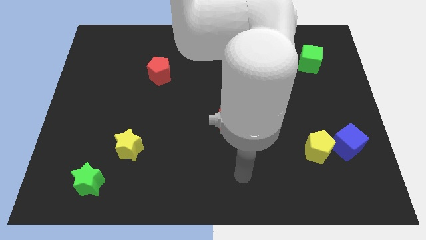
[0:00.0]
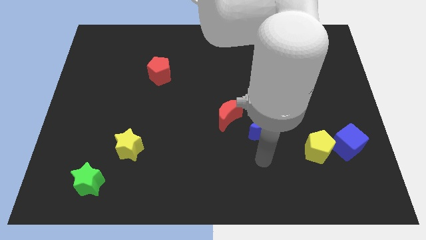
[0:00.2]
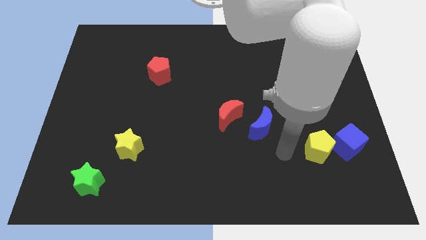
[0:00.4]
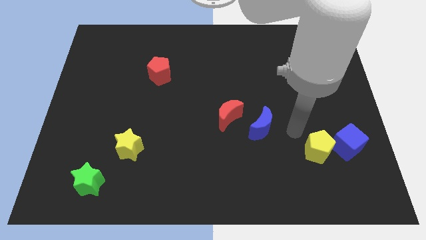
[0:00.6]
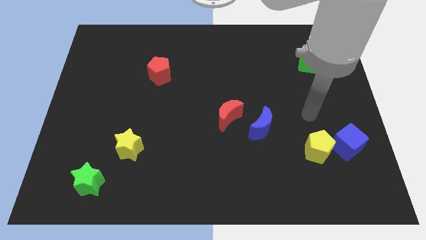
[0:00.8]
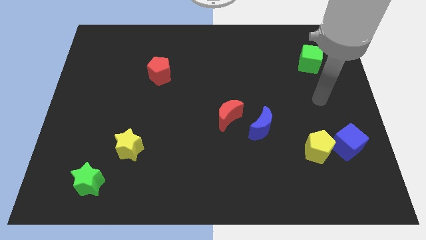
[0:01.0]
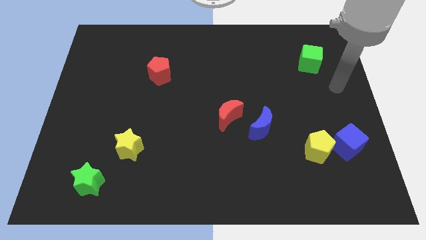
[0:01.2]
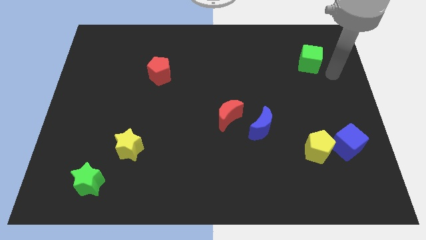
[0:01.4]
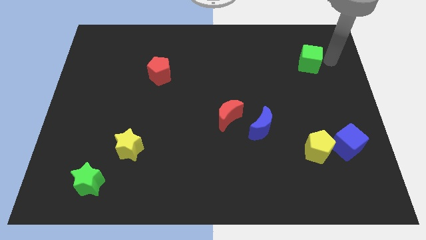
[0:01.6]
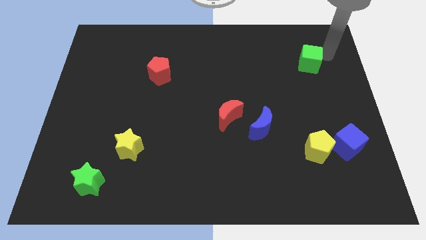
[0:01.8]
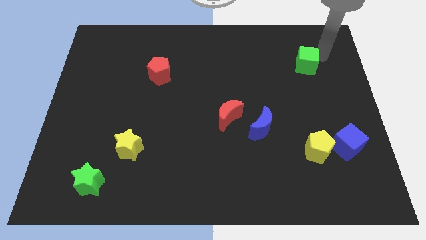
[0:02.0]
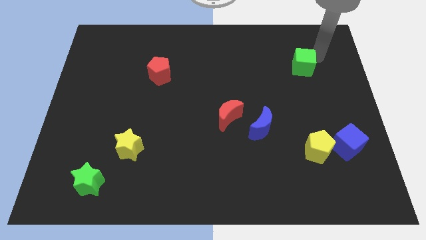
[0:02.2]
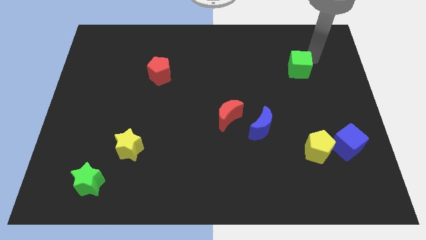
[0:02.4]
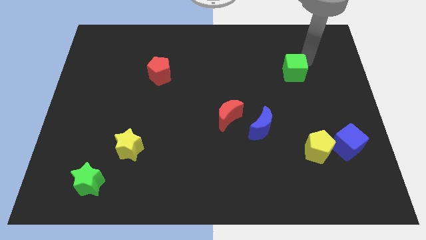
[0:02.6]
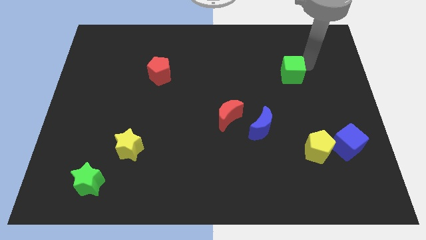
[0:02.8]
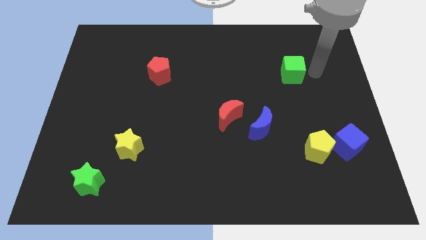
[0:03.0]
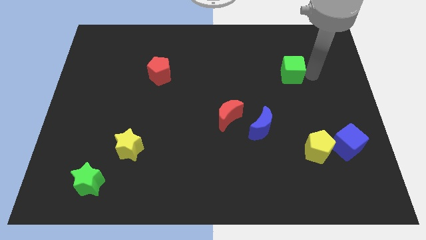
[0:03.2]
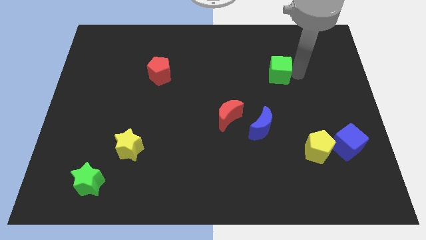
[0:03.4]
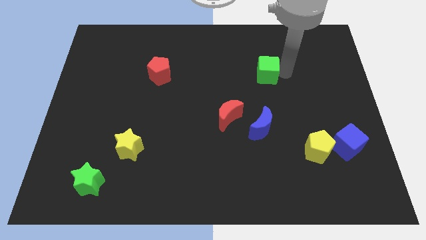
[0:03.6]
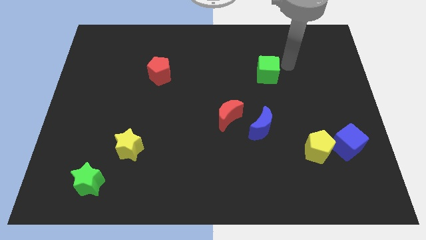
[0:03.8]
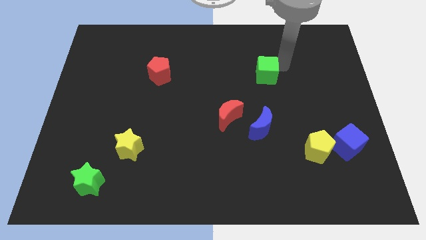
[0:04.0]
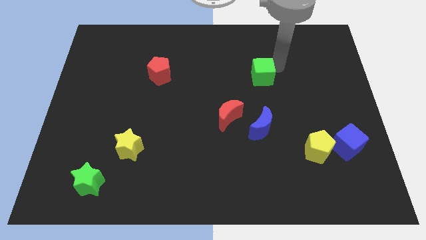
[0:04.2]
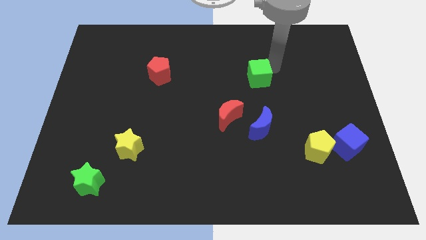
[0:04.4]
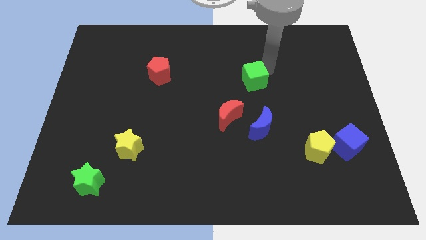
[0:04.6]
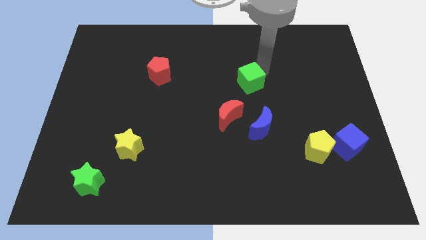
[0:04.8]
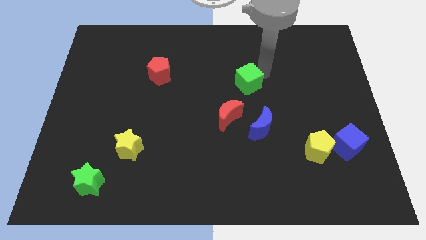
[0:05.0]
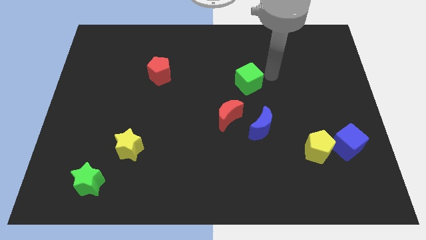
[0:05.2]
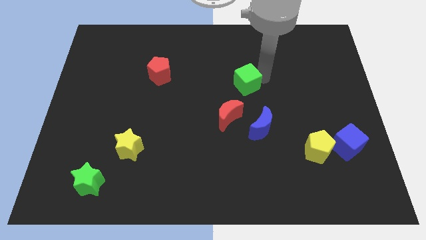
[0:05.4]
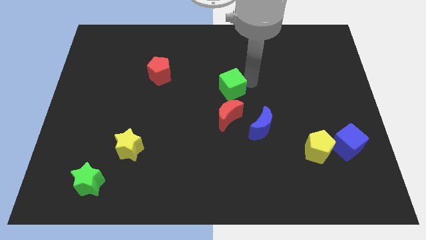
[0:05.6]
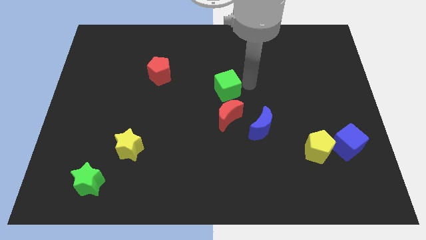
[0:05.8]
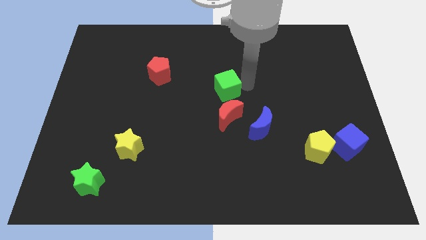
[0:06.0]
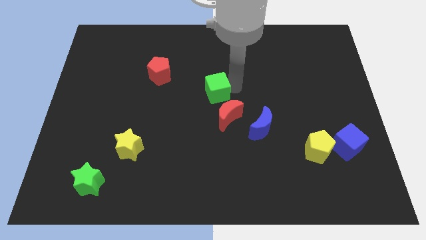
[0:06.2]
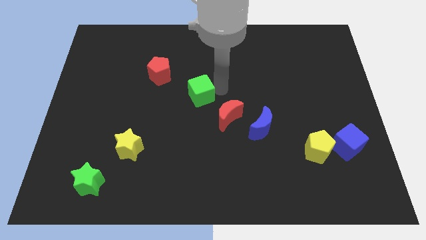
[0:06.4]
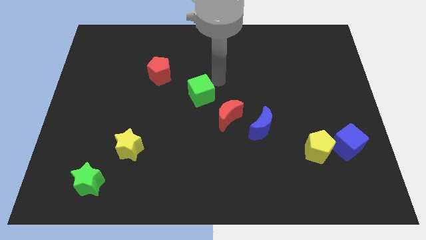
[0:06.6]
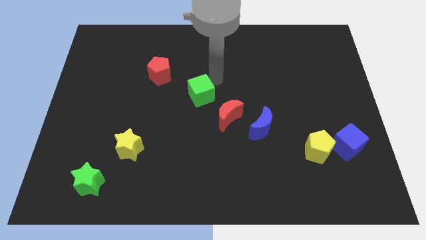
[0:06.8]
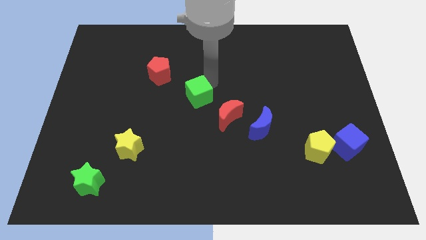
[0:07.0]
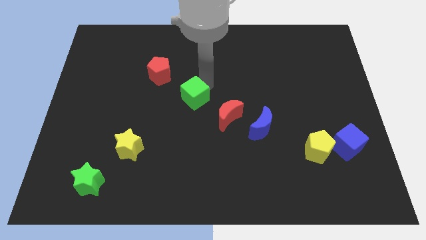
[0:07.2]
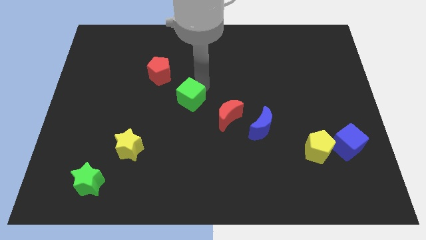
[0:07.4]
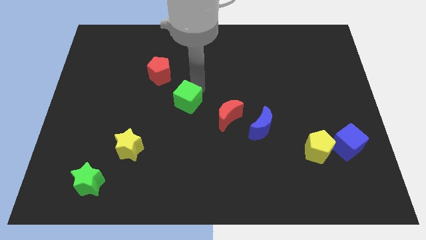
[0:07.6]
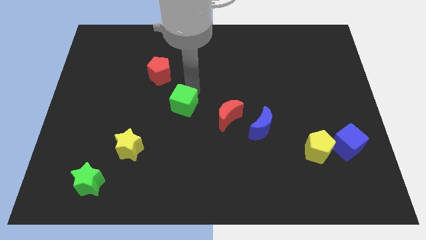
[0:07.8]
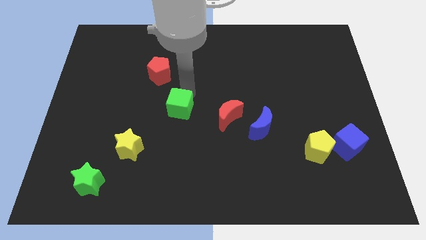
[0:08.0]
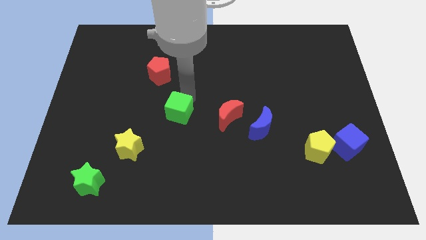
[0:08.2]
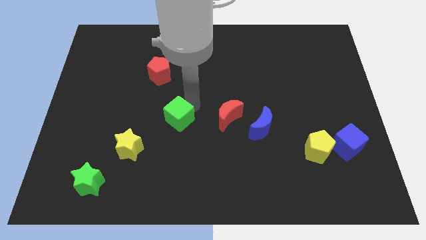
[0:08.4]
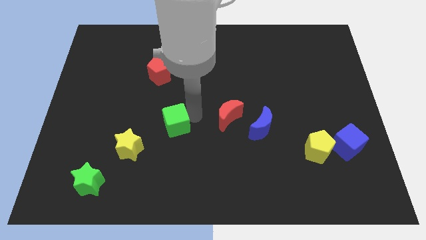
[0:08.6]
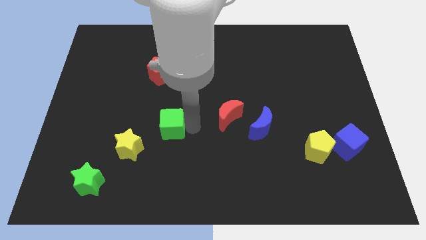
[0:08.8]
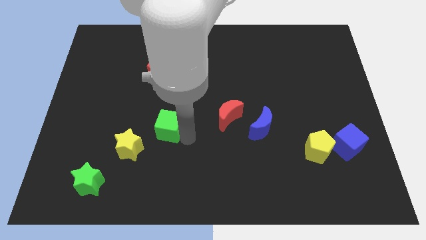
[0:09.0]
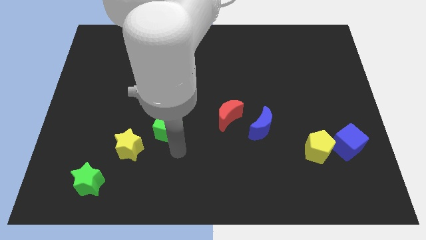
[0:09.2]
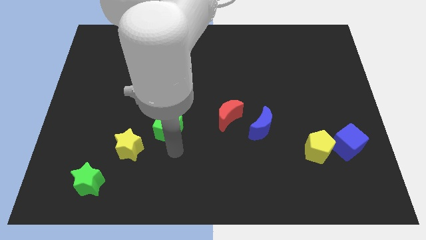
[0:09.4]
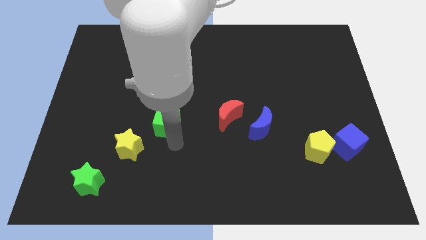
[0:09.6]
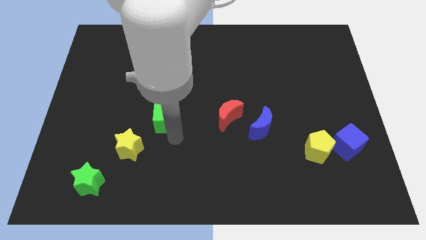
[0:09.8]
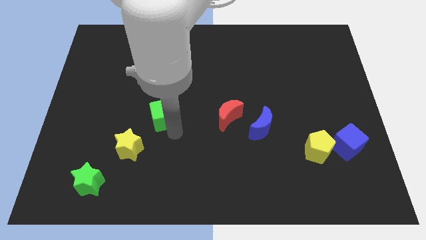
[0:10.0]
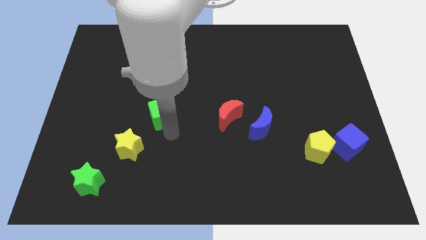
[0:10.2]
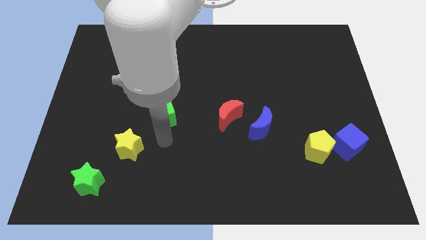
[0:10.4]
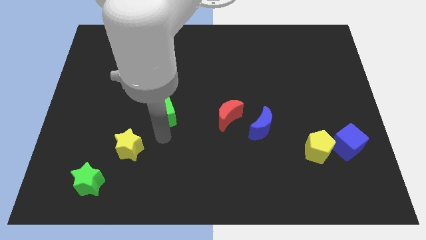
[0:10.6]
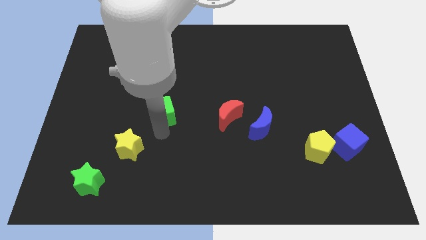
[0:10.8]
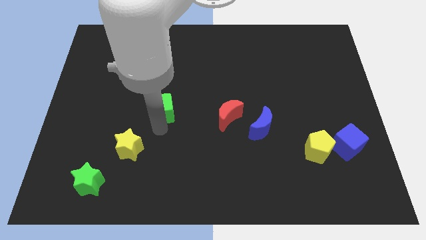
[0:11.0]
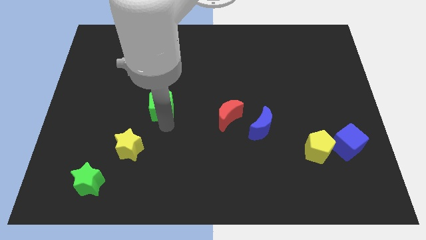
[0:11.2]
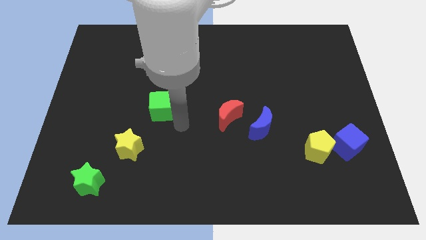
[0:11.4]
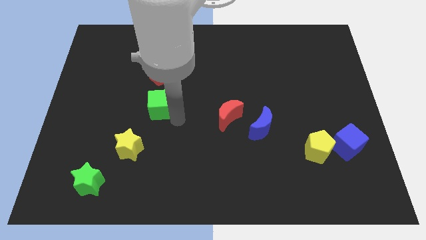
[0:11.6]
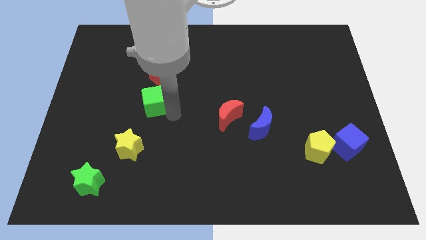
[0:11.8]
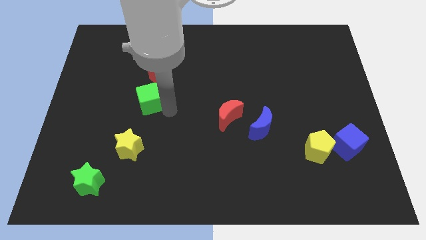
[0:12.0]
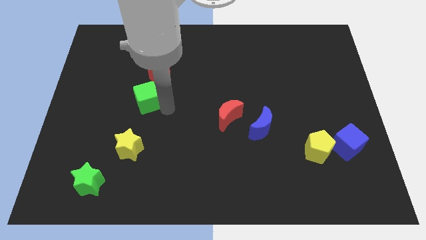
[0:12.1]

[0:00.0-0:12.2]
slide the green cube to the bottom left of the red pentagon

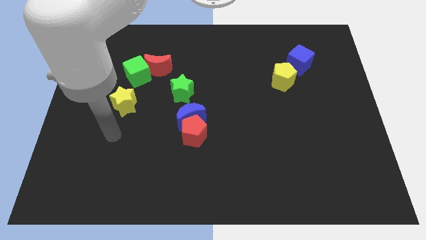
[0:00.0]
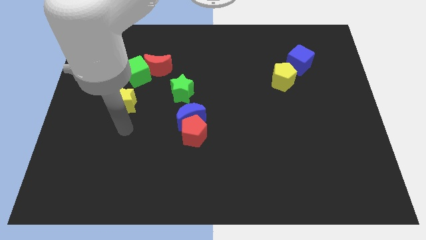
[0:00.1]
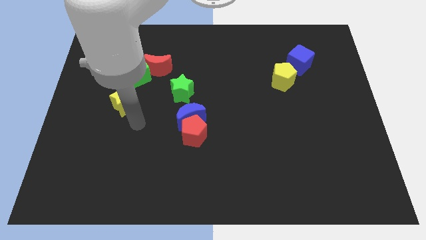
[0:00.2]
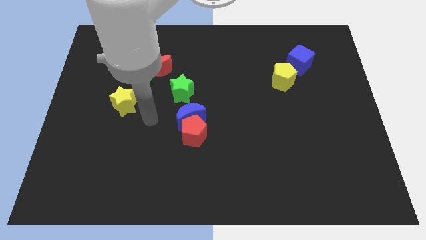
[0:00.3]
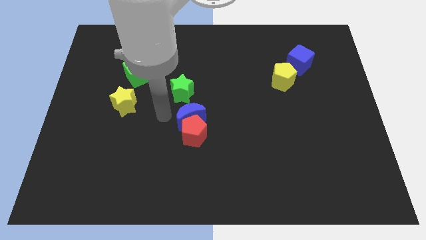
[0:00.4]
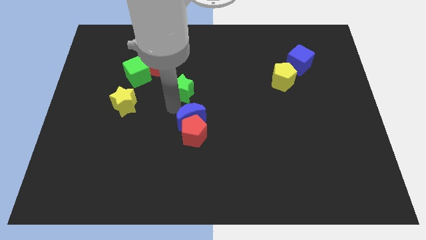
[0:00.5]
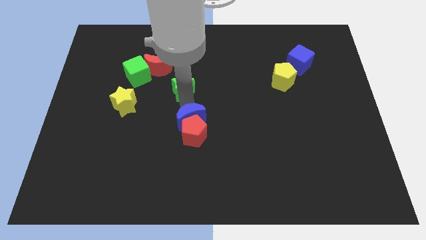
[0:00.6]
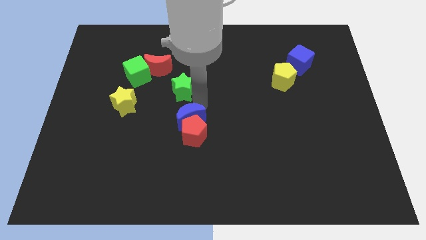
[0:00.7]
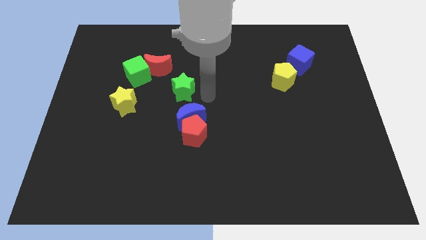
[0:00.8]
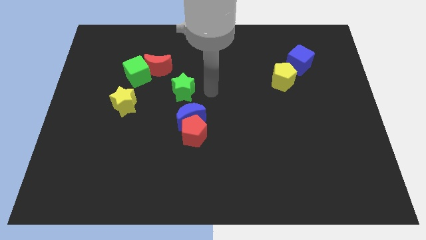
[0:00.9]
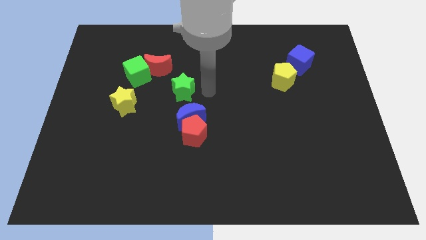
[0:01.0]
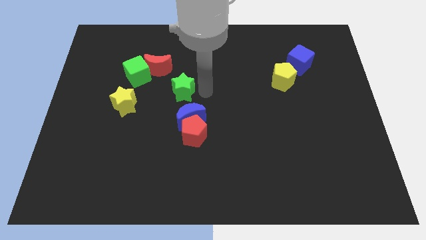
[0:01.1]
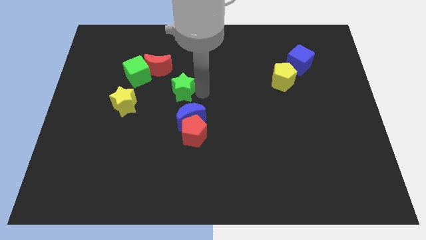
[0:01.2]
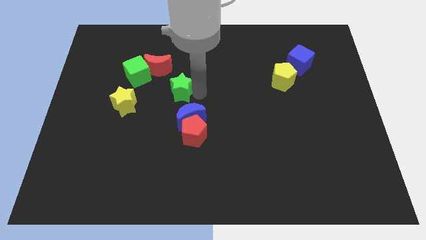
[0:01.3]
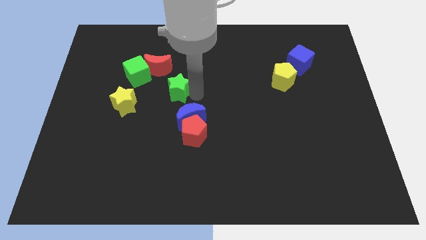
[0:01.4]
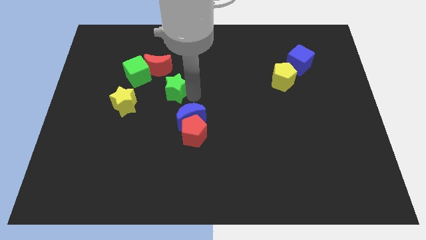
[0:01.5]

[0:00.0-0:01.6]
slide the green star diagonally down and to the right of the green cube
